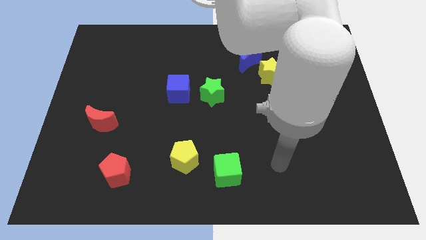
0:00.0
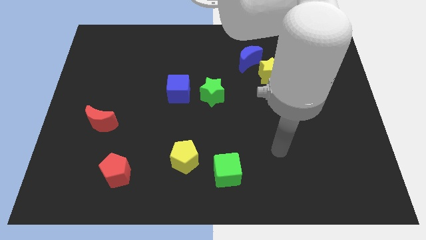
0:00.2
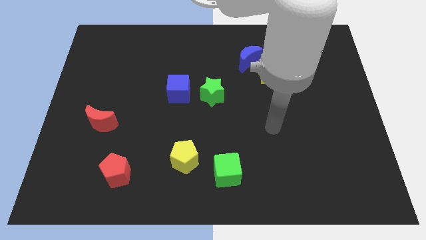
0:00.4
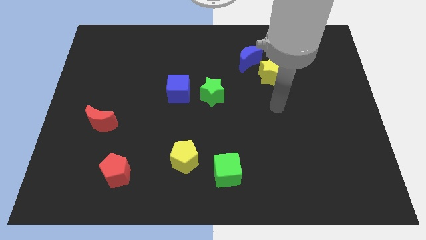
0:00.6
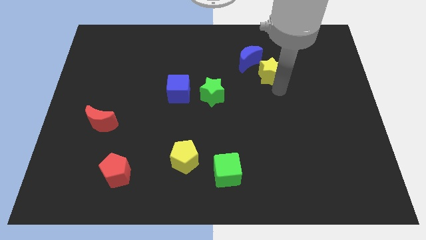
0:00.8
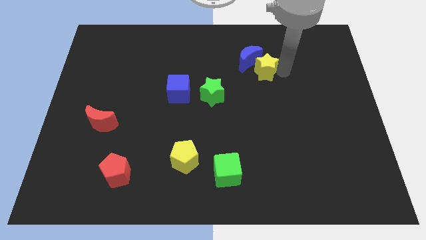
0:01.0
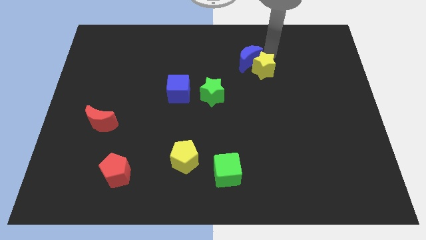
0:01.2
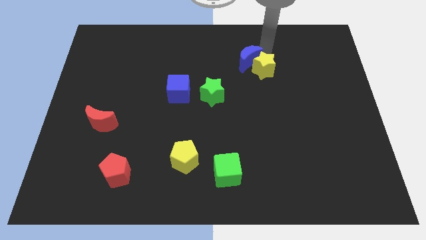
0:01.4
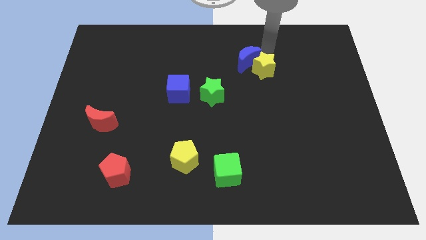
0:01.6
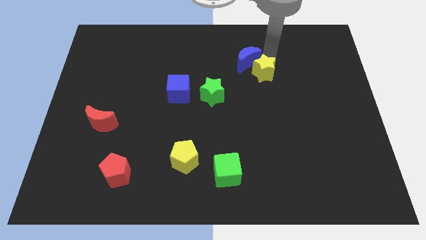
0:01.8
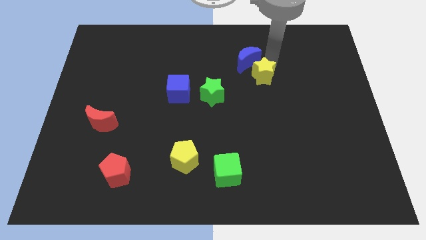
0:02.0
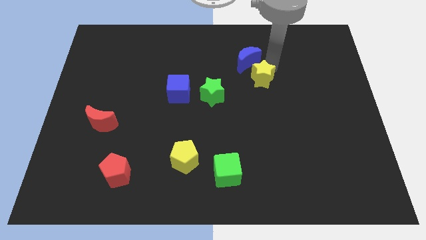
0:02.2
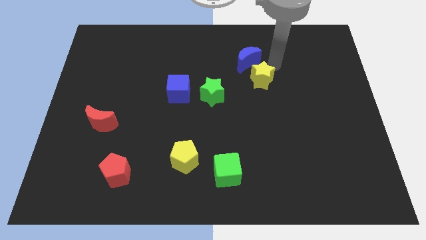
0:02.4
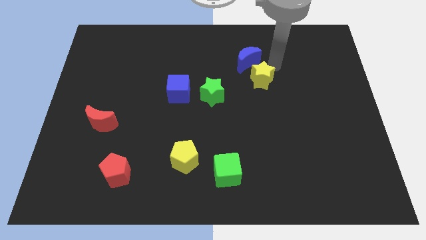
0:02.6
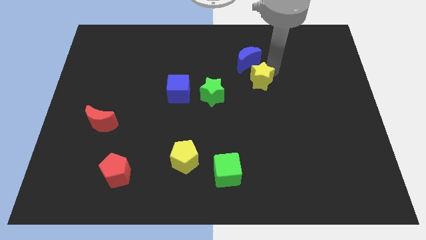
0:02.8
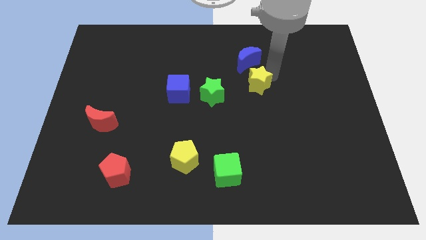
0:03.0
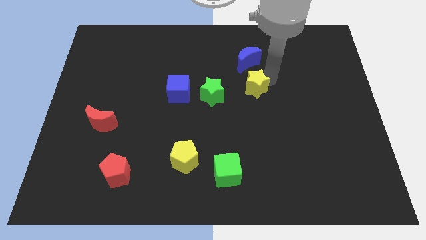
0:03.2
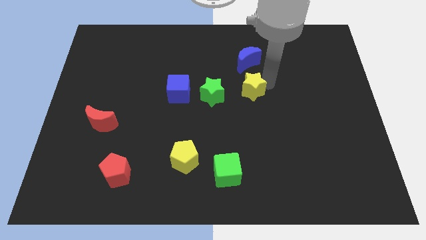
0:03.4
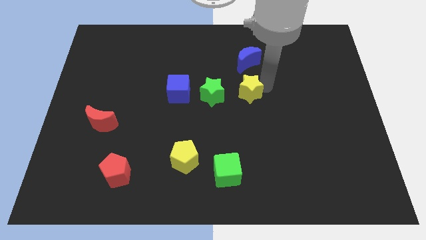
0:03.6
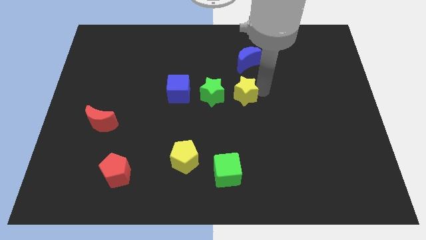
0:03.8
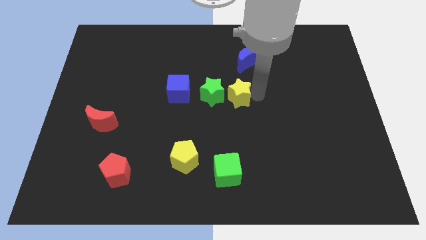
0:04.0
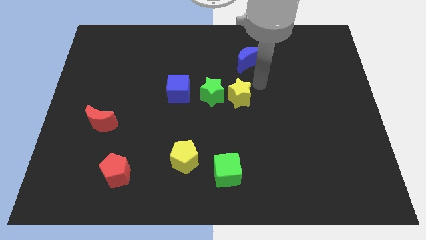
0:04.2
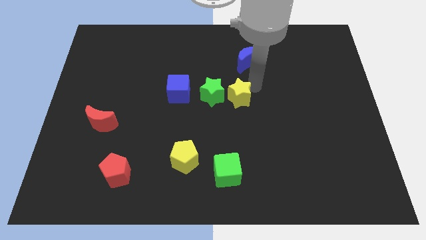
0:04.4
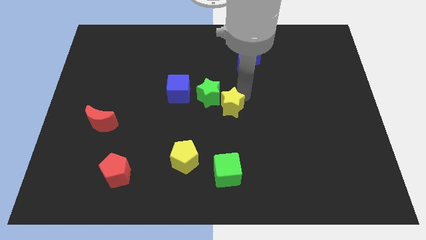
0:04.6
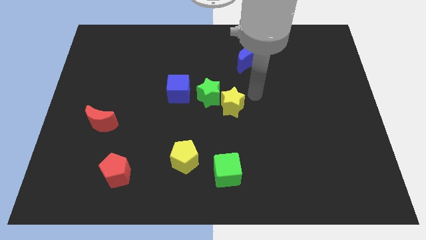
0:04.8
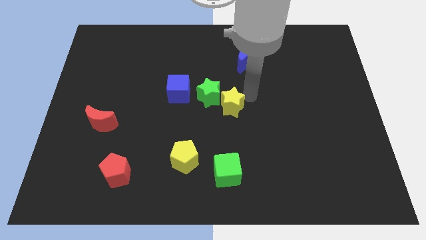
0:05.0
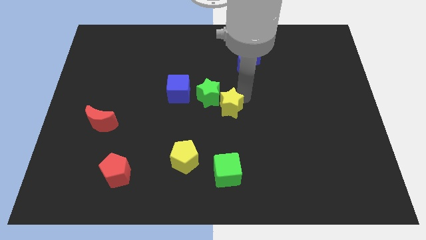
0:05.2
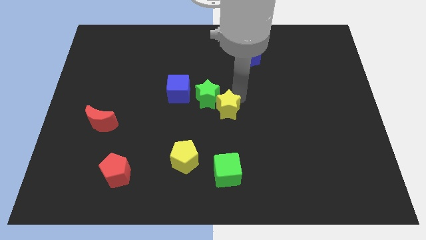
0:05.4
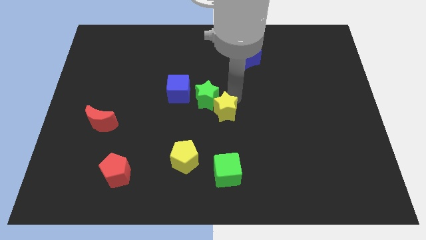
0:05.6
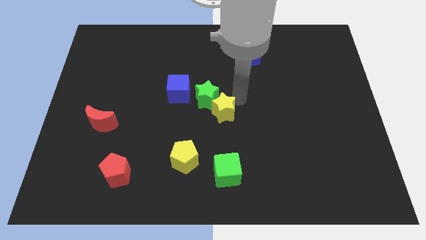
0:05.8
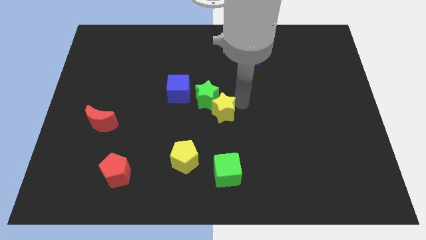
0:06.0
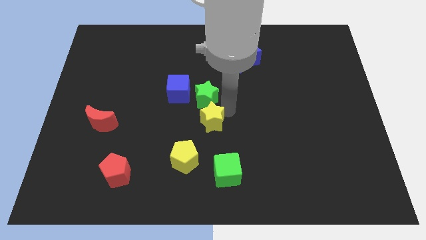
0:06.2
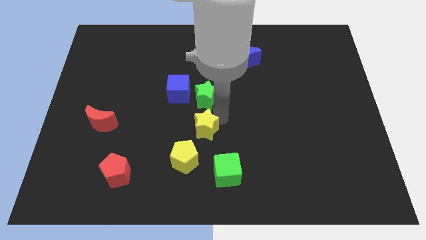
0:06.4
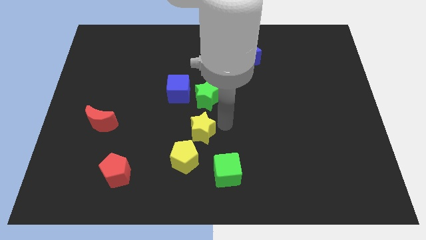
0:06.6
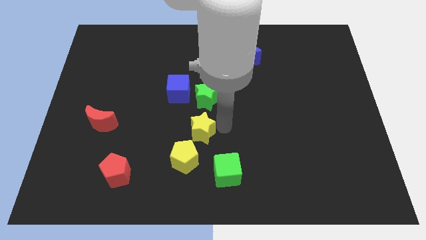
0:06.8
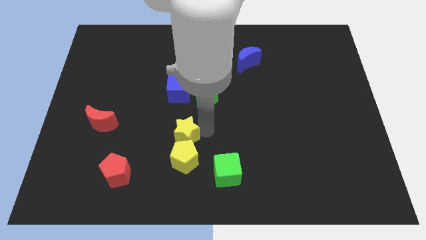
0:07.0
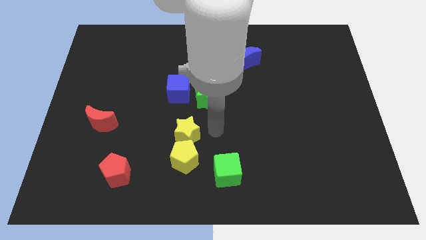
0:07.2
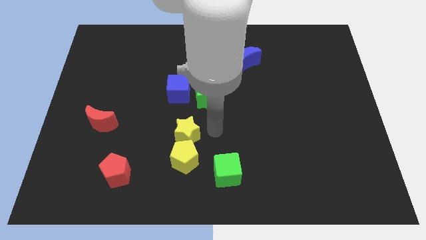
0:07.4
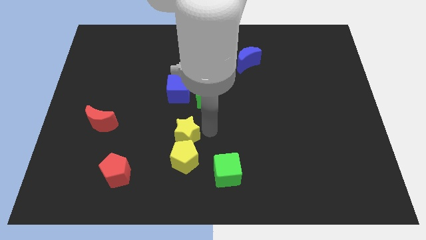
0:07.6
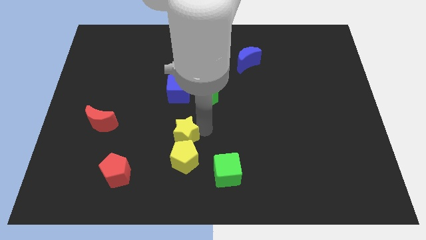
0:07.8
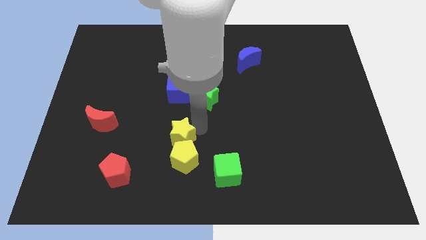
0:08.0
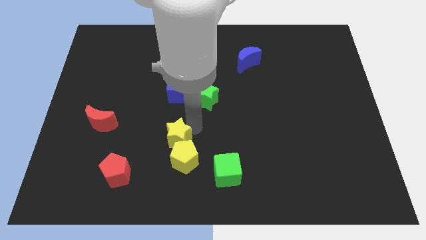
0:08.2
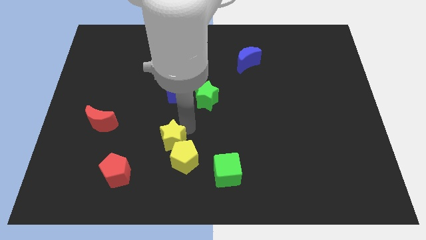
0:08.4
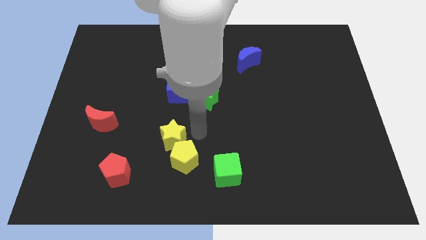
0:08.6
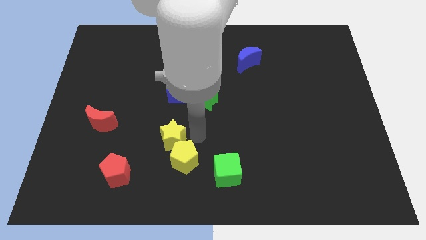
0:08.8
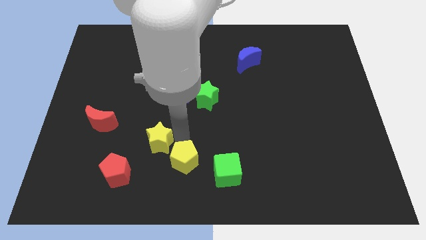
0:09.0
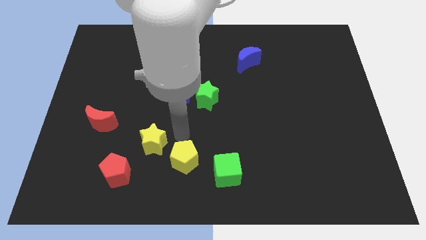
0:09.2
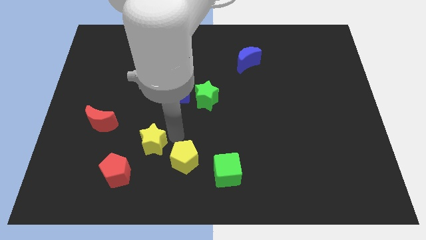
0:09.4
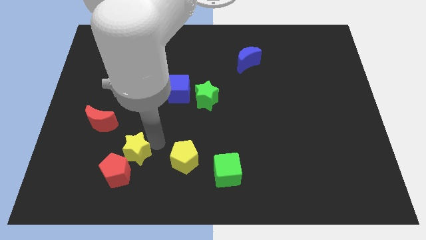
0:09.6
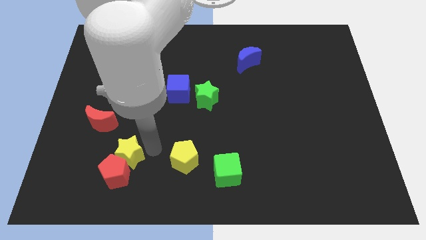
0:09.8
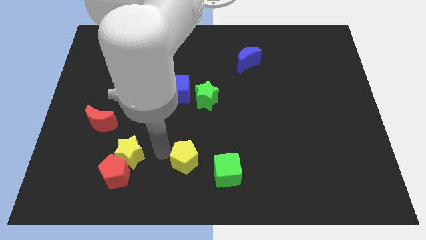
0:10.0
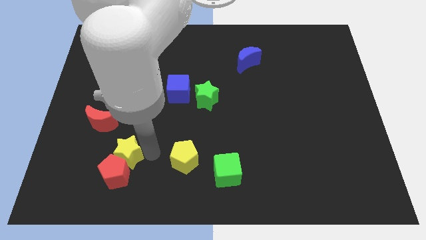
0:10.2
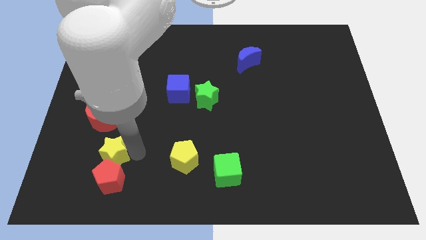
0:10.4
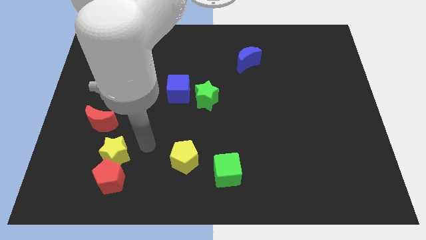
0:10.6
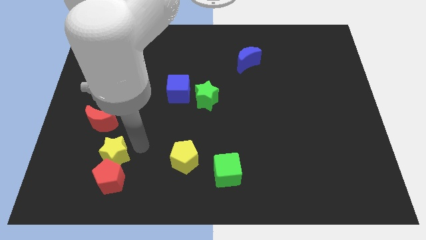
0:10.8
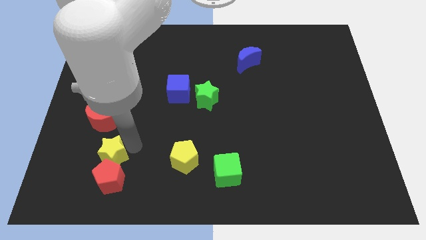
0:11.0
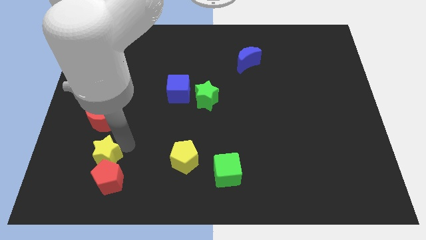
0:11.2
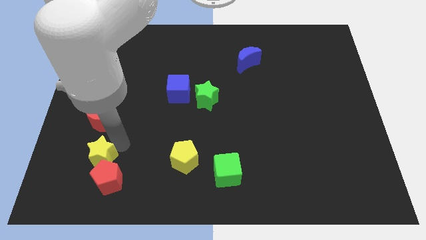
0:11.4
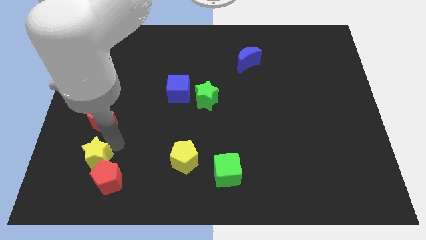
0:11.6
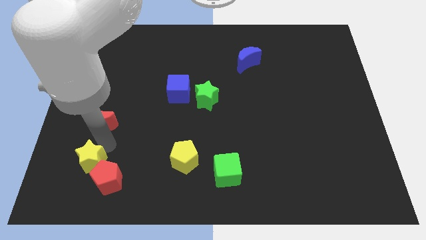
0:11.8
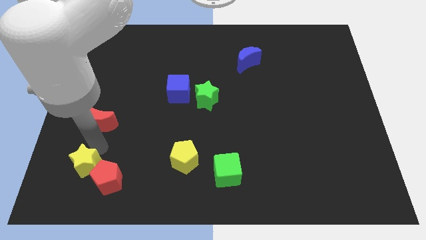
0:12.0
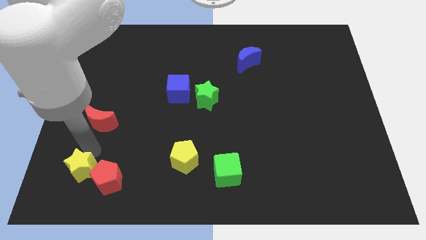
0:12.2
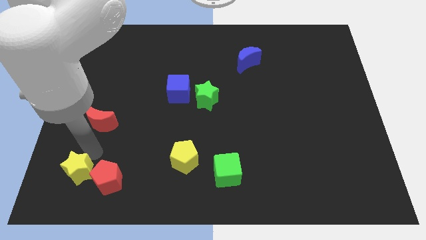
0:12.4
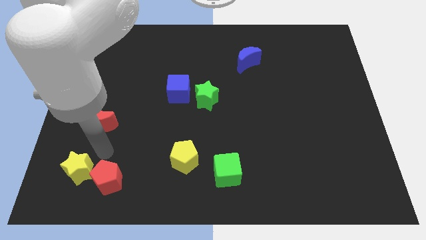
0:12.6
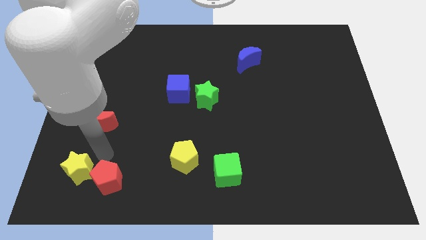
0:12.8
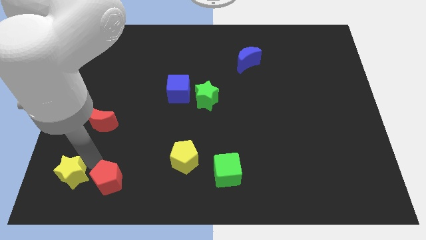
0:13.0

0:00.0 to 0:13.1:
put the yellow star to the bottom left of the board
